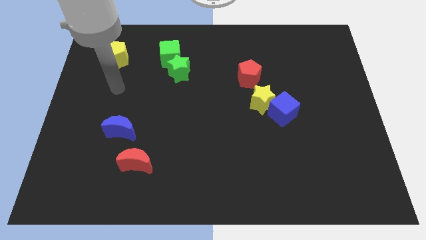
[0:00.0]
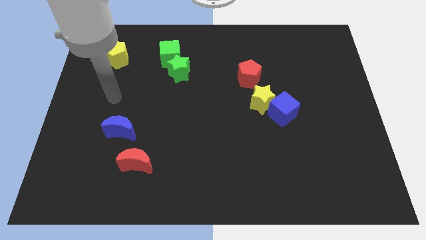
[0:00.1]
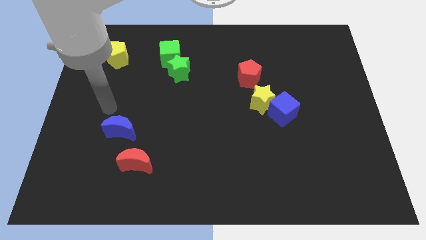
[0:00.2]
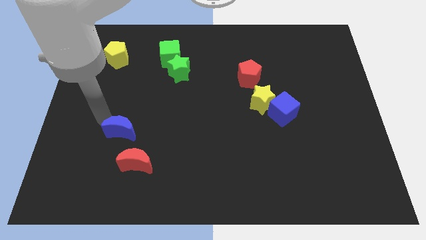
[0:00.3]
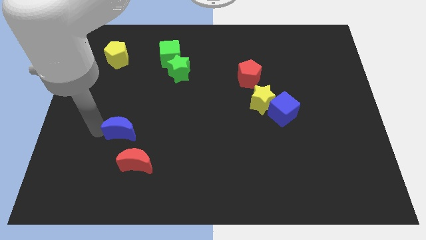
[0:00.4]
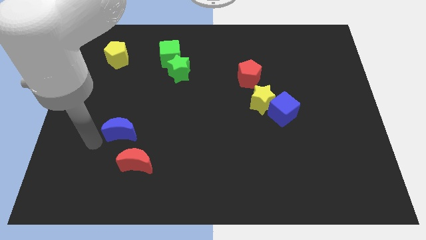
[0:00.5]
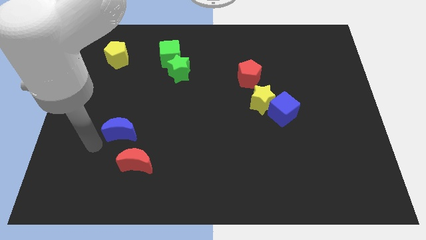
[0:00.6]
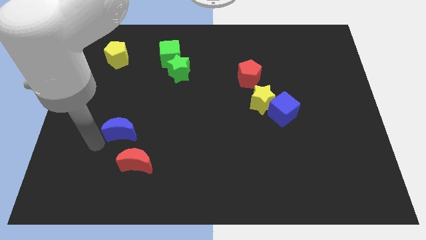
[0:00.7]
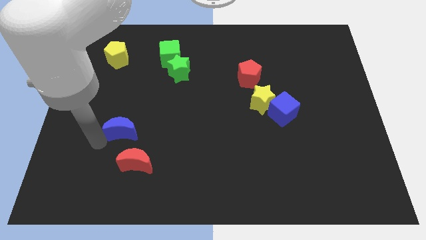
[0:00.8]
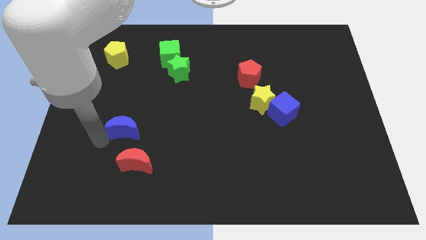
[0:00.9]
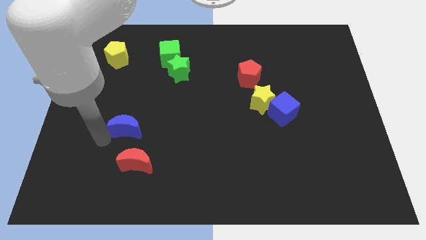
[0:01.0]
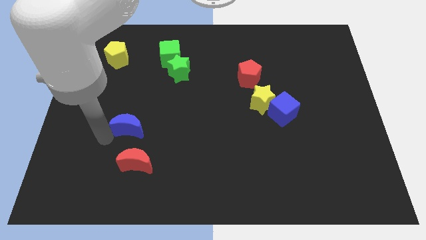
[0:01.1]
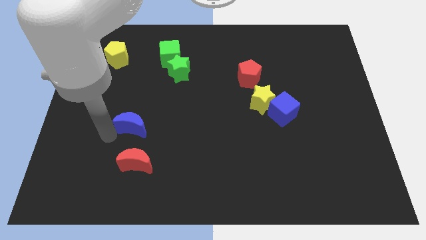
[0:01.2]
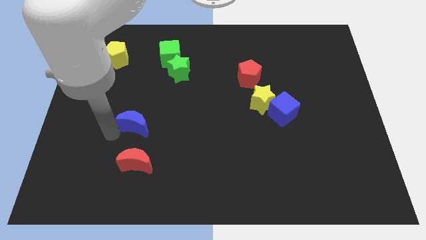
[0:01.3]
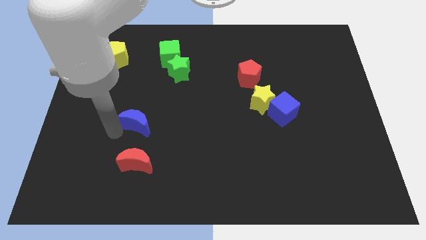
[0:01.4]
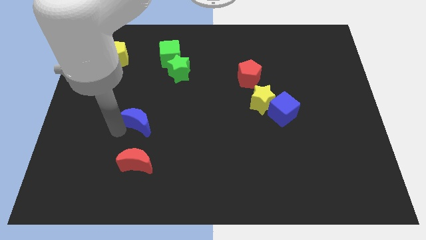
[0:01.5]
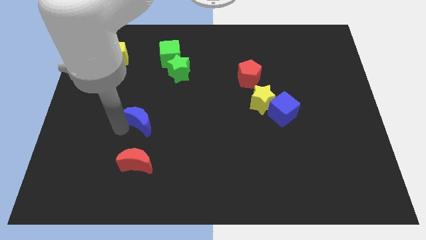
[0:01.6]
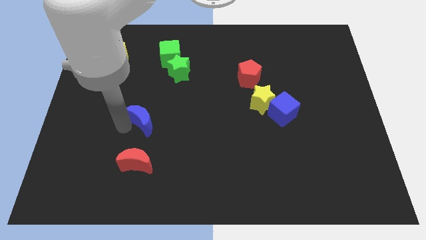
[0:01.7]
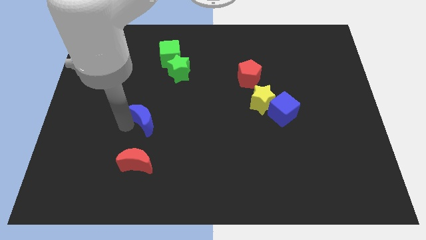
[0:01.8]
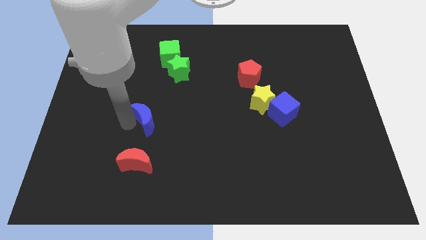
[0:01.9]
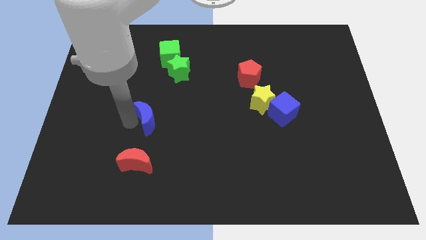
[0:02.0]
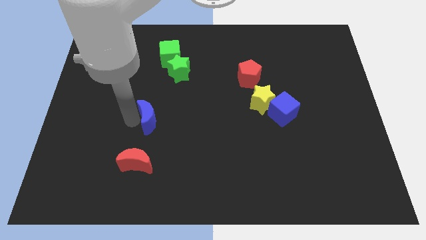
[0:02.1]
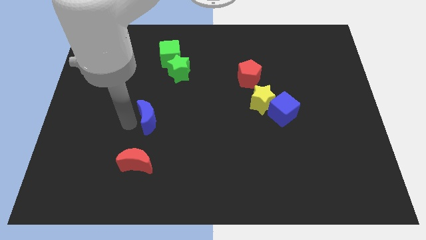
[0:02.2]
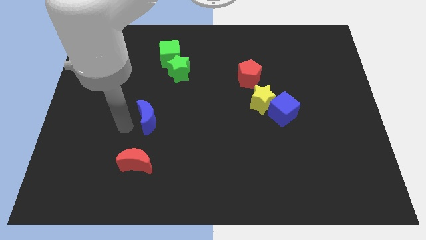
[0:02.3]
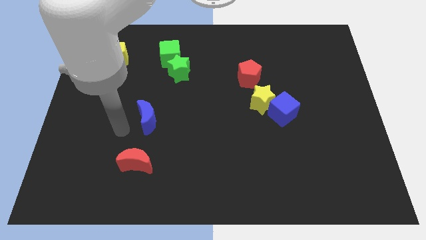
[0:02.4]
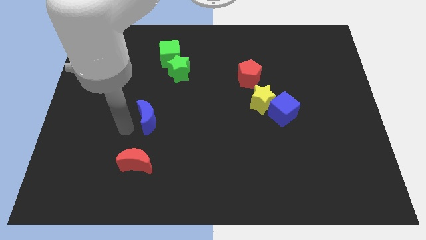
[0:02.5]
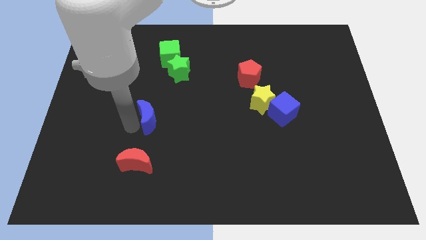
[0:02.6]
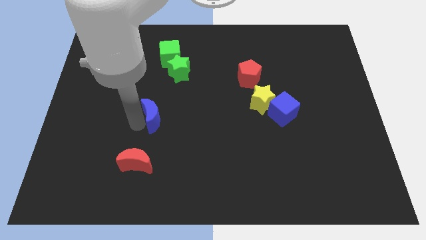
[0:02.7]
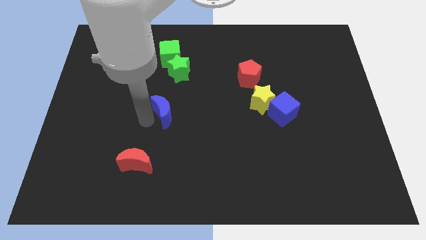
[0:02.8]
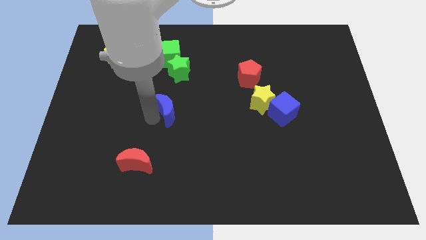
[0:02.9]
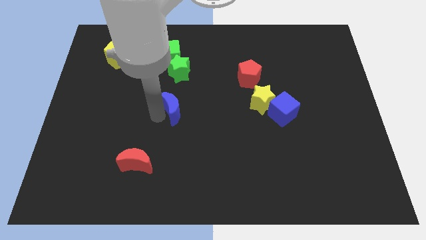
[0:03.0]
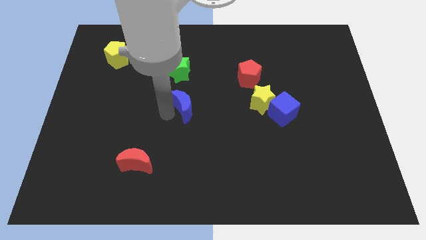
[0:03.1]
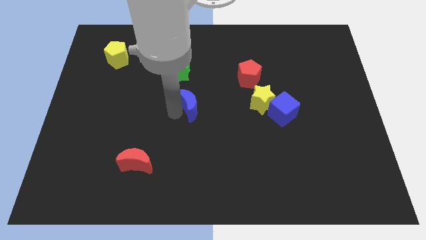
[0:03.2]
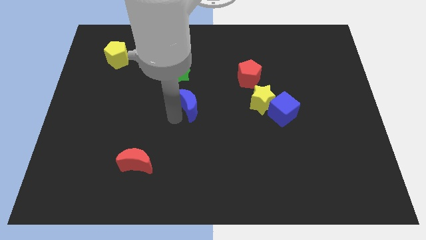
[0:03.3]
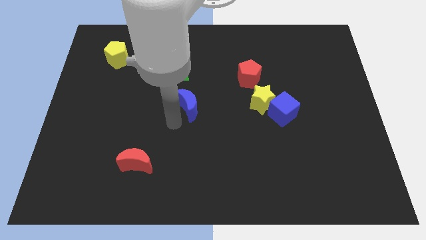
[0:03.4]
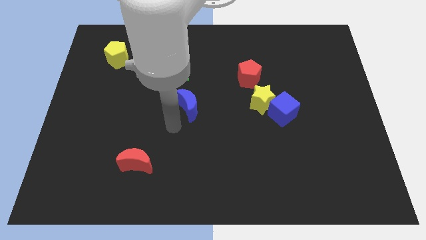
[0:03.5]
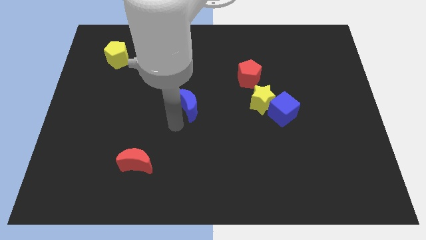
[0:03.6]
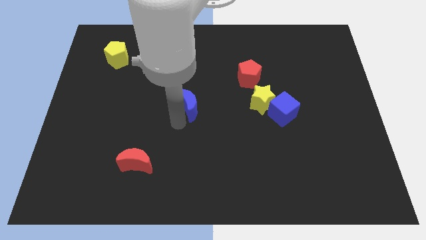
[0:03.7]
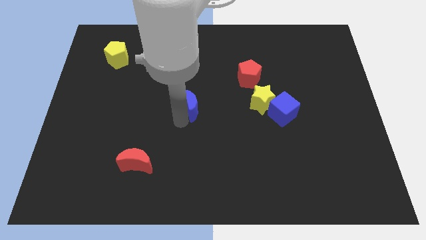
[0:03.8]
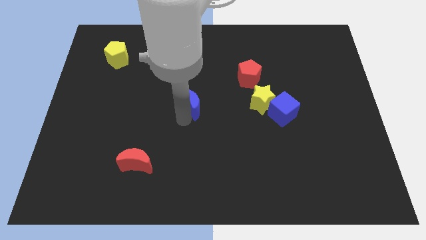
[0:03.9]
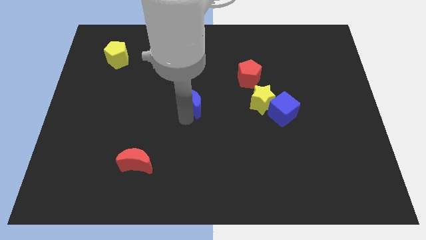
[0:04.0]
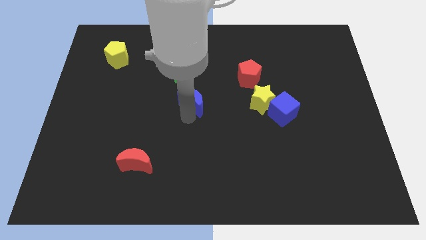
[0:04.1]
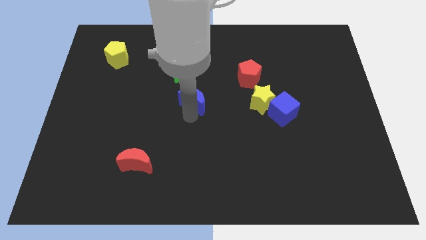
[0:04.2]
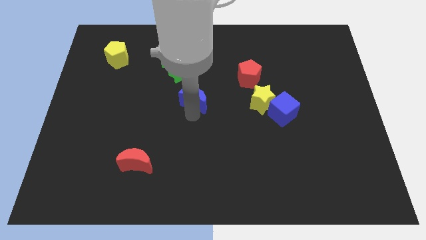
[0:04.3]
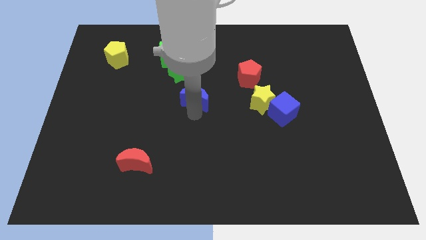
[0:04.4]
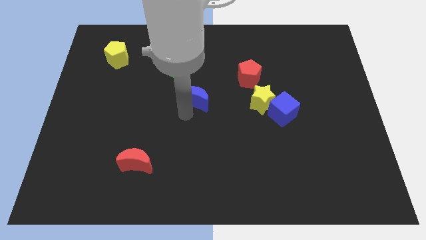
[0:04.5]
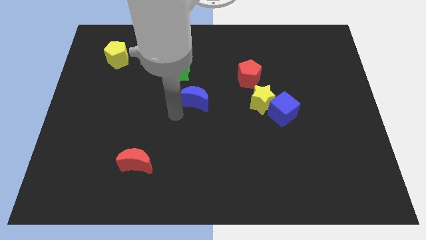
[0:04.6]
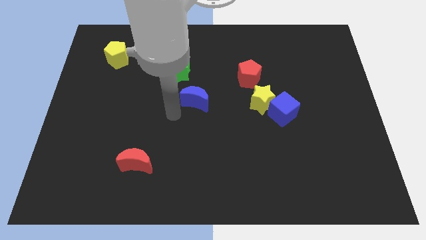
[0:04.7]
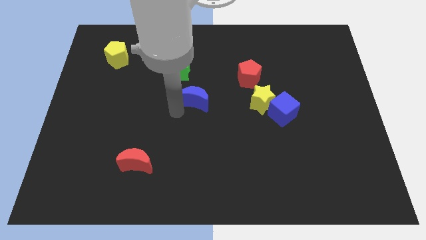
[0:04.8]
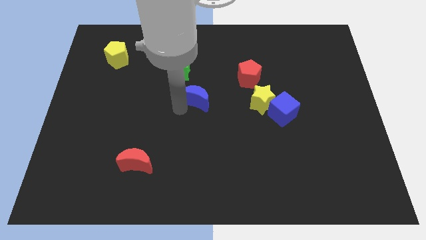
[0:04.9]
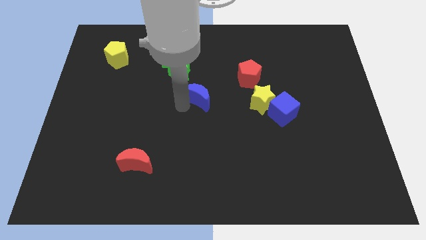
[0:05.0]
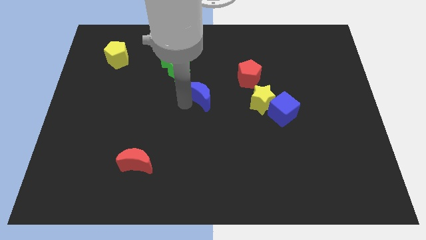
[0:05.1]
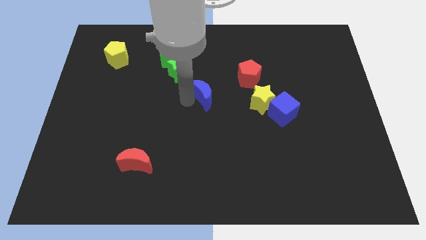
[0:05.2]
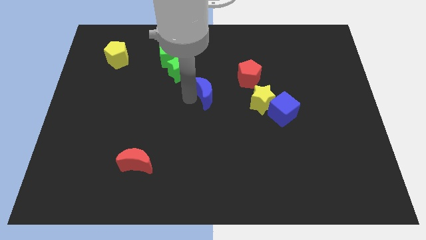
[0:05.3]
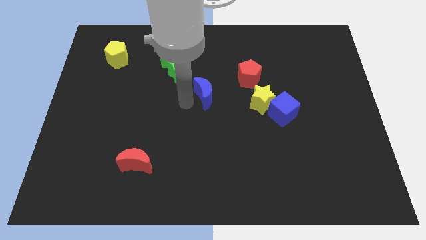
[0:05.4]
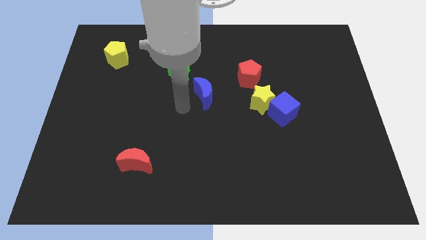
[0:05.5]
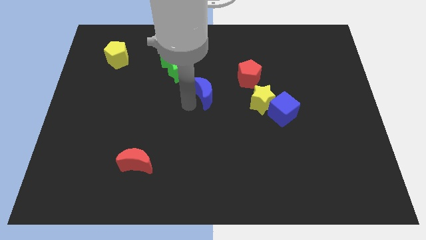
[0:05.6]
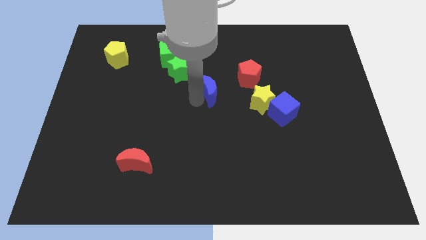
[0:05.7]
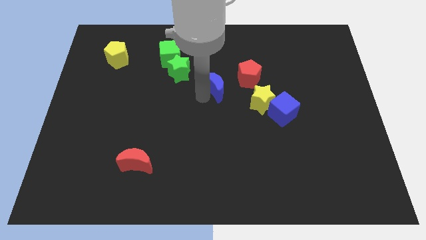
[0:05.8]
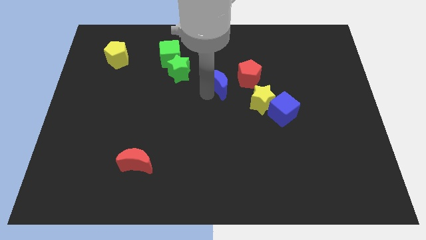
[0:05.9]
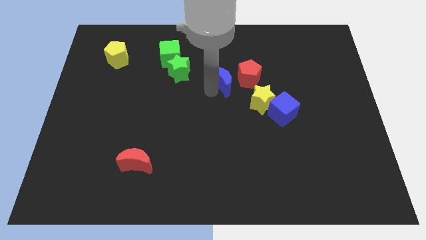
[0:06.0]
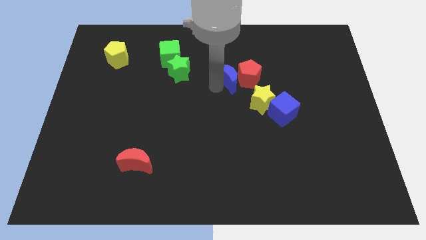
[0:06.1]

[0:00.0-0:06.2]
push the blue moon towards the red pentagon

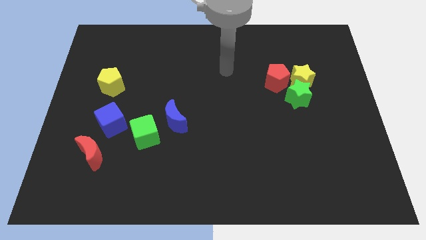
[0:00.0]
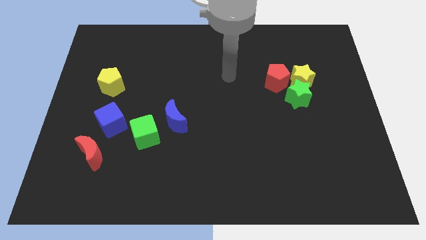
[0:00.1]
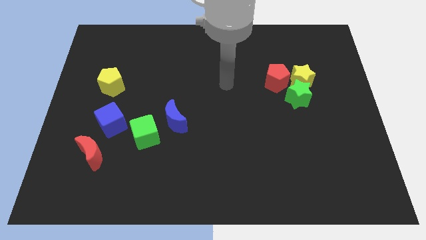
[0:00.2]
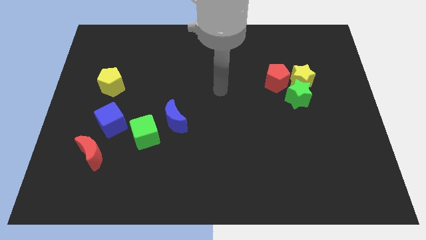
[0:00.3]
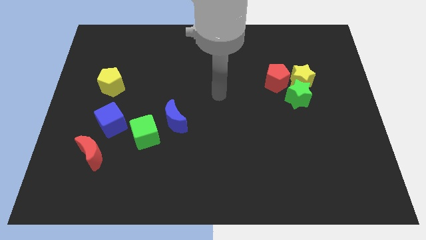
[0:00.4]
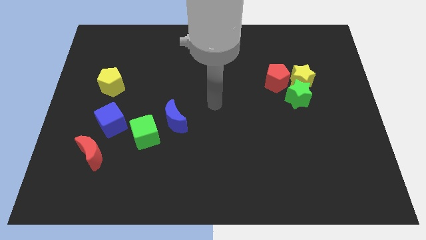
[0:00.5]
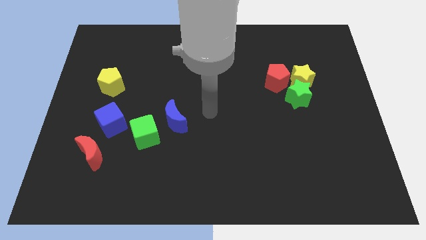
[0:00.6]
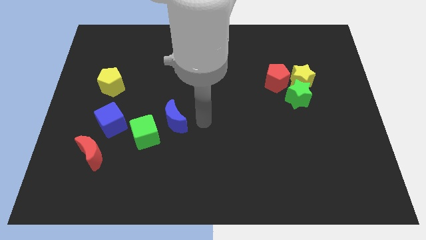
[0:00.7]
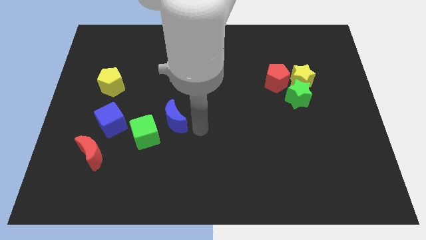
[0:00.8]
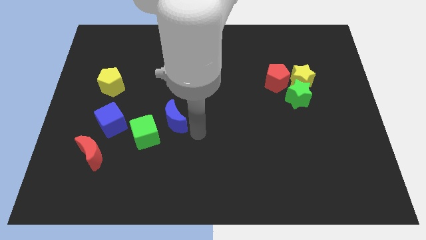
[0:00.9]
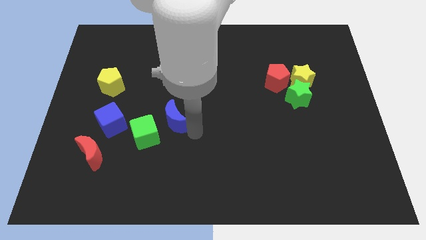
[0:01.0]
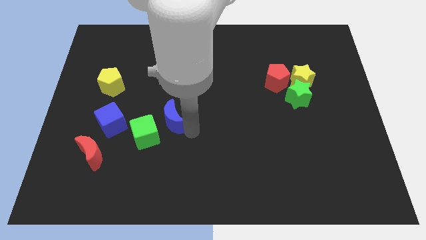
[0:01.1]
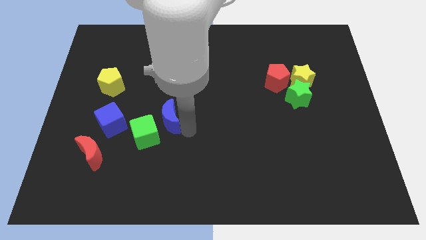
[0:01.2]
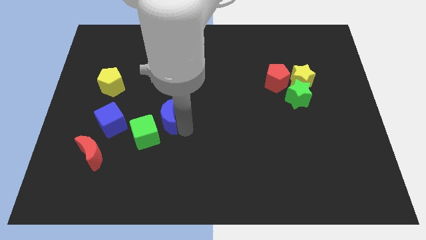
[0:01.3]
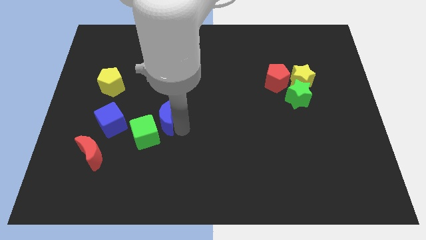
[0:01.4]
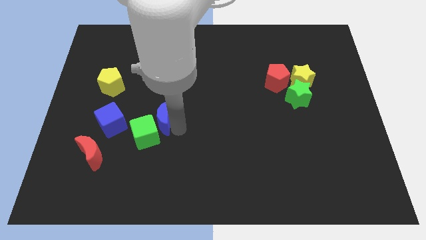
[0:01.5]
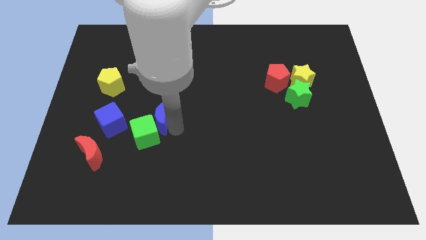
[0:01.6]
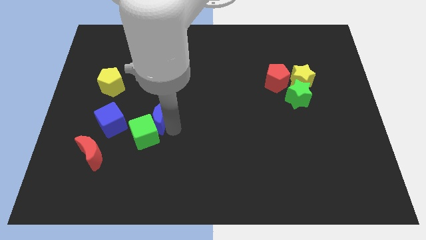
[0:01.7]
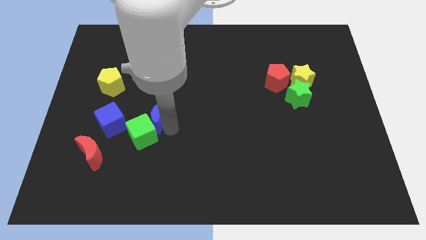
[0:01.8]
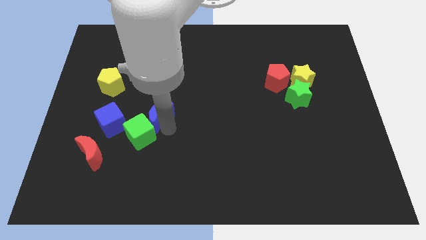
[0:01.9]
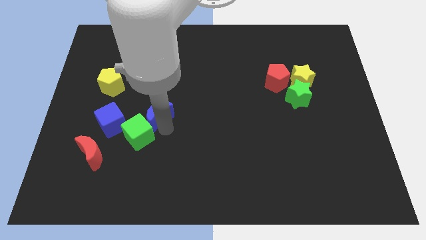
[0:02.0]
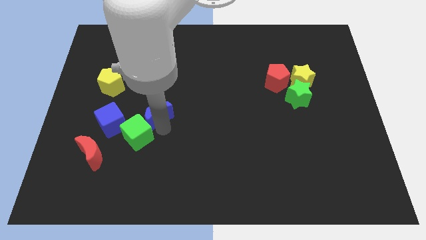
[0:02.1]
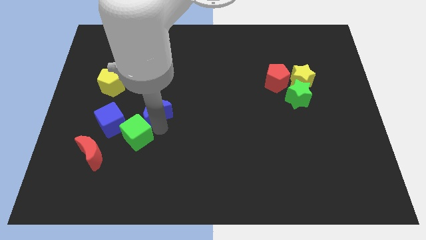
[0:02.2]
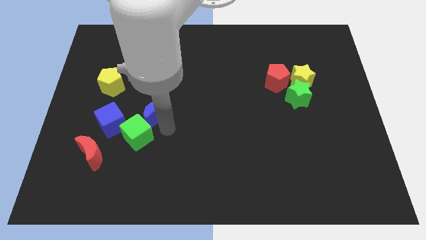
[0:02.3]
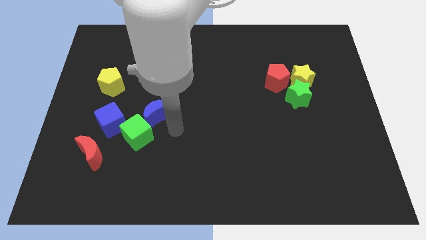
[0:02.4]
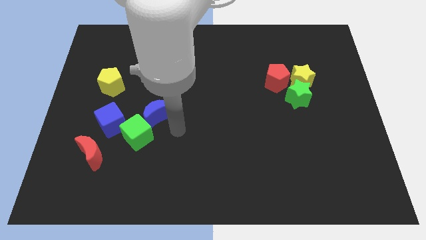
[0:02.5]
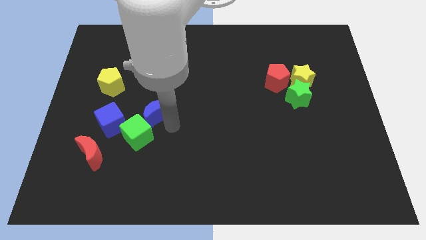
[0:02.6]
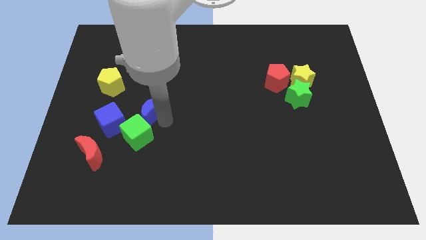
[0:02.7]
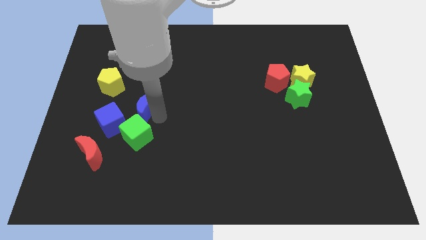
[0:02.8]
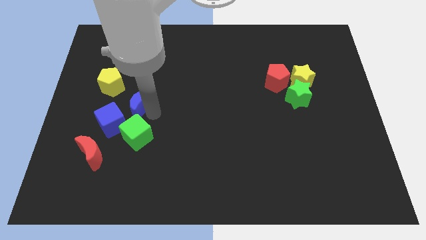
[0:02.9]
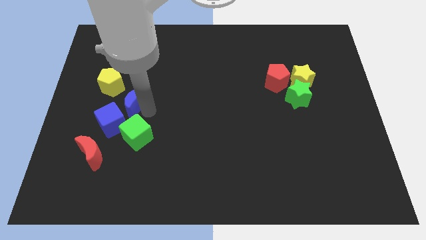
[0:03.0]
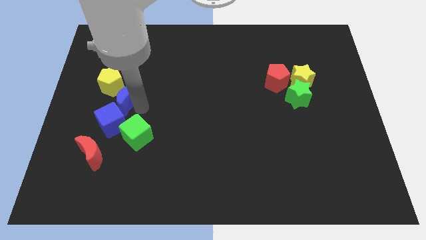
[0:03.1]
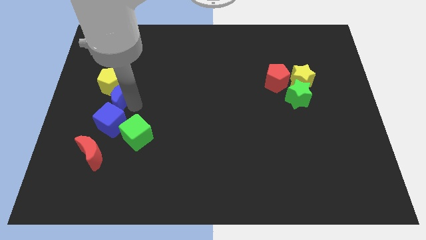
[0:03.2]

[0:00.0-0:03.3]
push the blue moon next to the yellow pentagon
